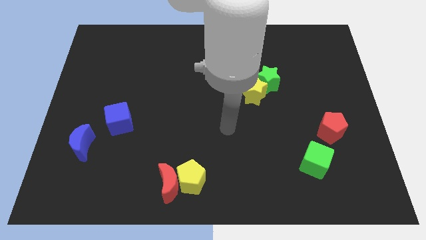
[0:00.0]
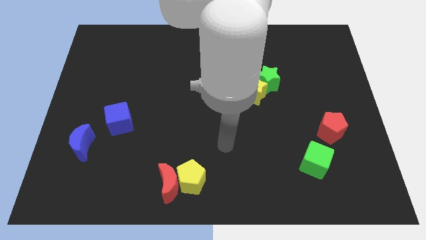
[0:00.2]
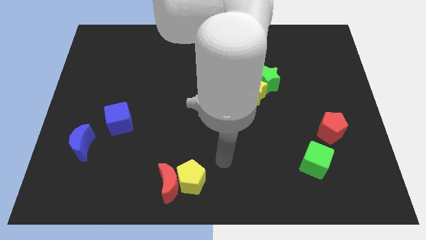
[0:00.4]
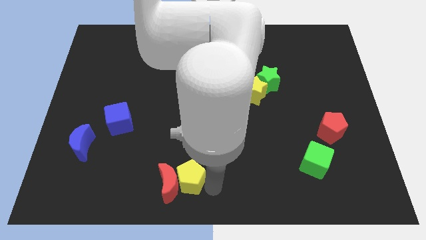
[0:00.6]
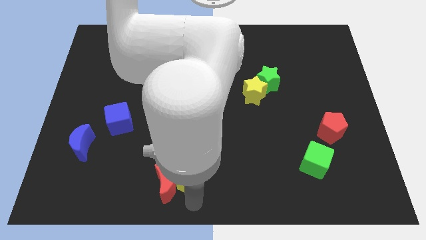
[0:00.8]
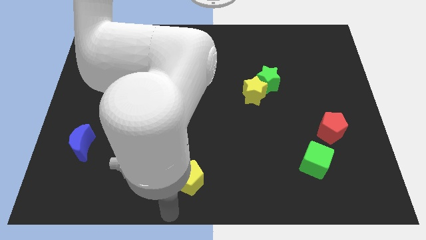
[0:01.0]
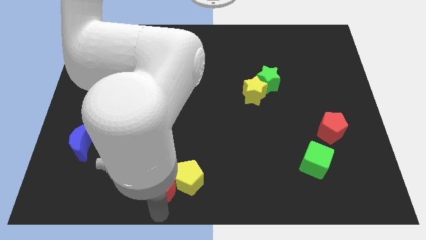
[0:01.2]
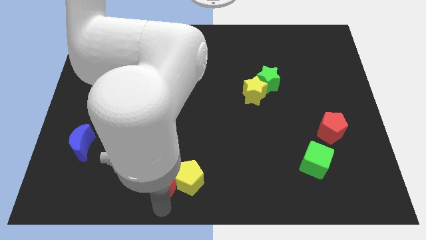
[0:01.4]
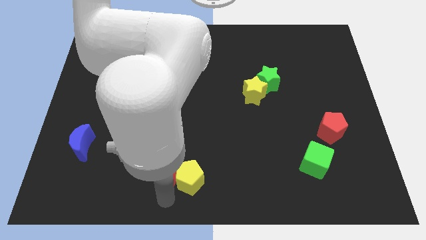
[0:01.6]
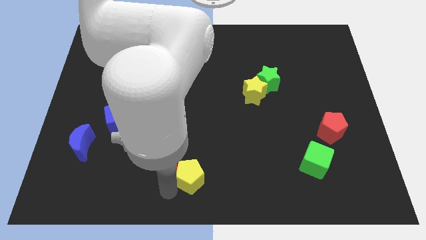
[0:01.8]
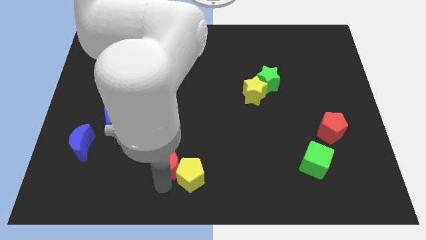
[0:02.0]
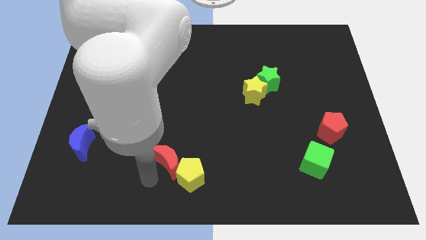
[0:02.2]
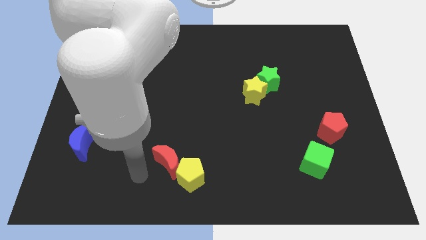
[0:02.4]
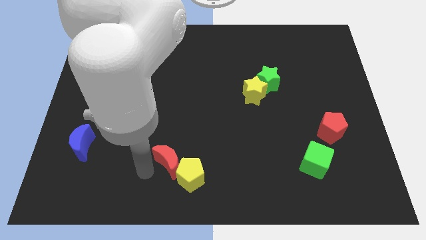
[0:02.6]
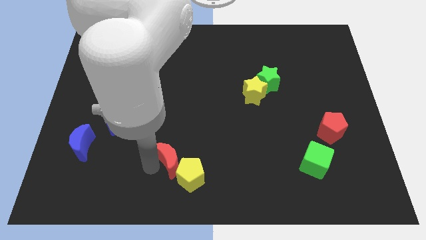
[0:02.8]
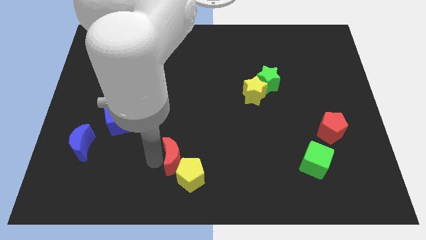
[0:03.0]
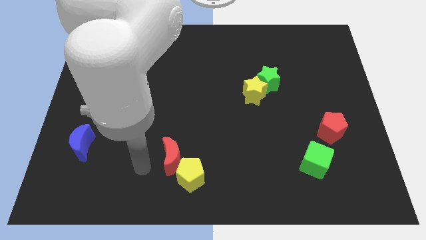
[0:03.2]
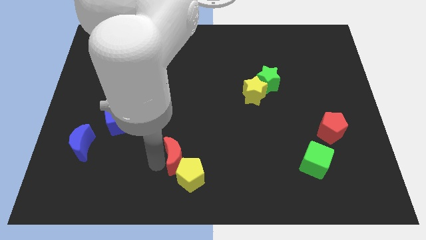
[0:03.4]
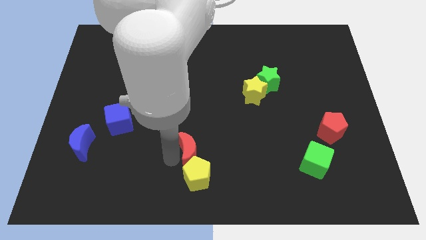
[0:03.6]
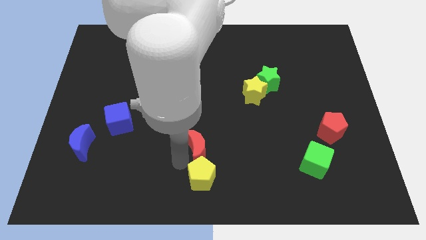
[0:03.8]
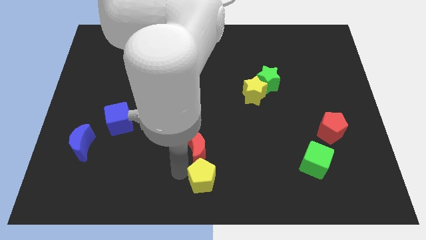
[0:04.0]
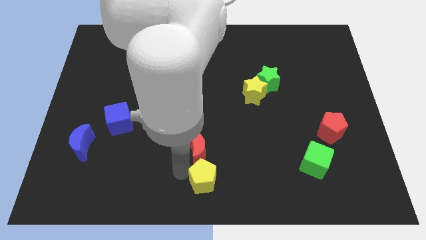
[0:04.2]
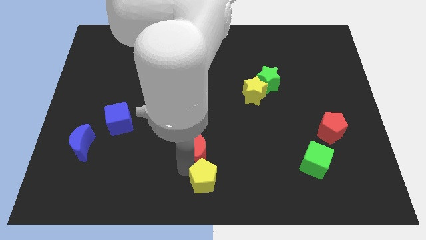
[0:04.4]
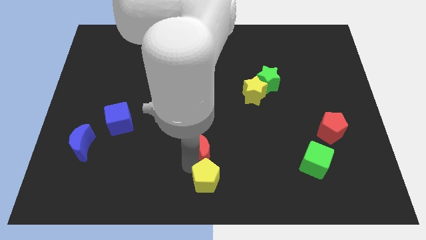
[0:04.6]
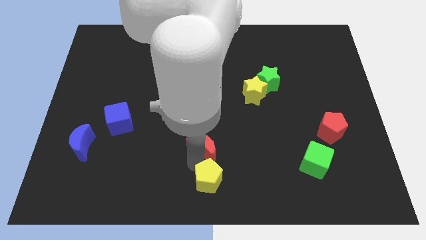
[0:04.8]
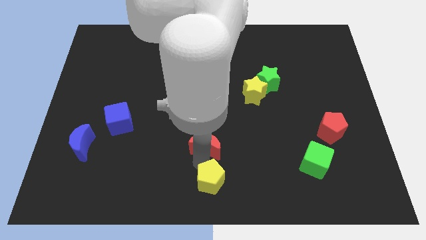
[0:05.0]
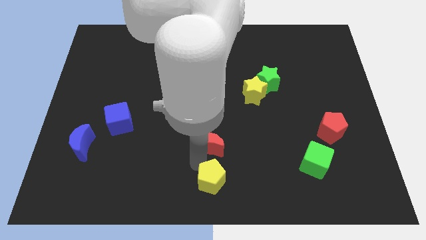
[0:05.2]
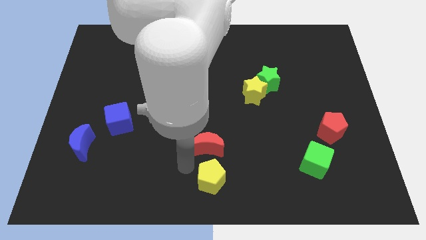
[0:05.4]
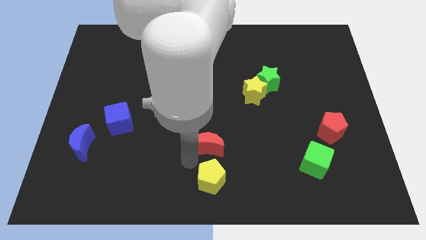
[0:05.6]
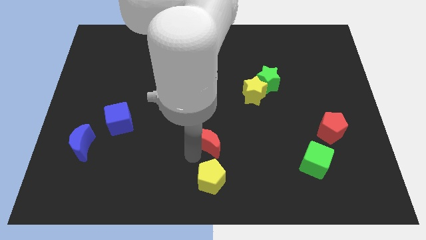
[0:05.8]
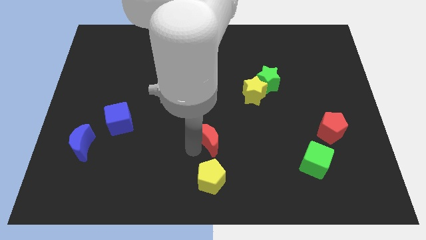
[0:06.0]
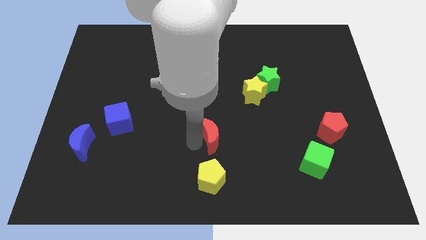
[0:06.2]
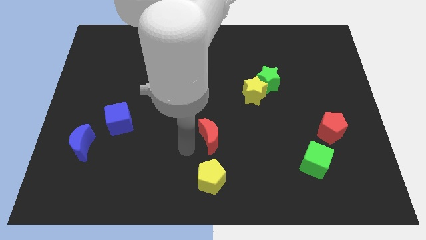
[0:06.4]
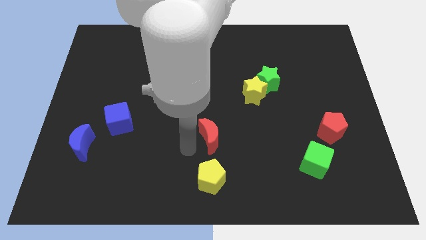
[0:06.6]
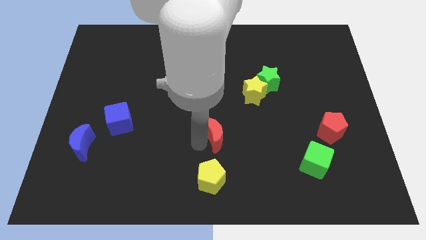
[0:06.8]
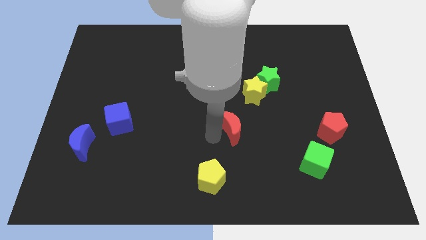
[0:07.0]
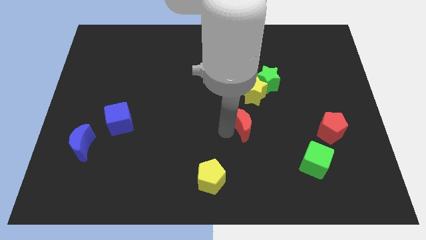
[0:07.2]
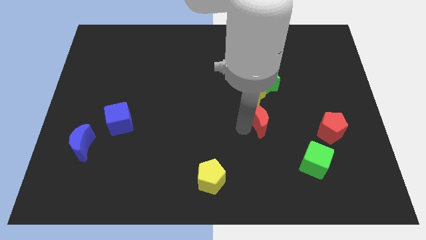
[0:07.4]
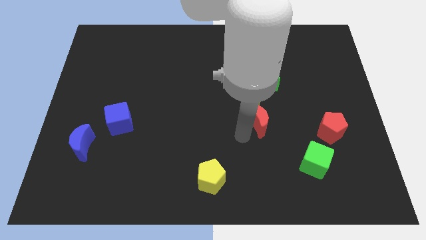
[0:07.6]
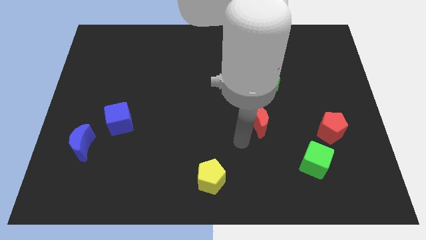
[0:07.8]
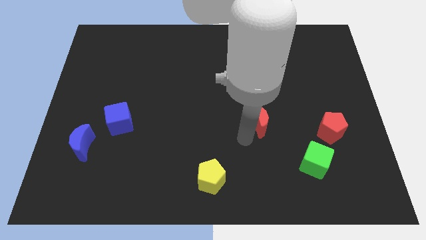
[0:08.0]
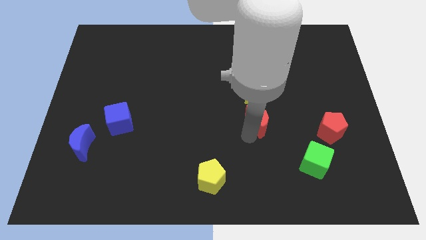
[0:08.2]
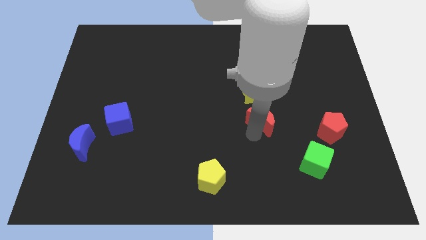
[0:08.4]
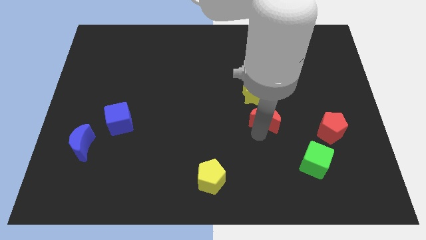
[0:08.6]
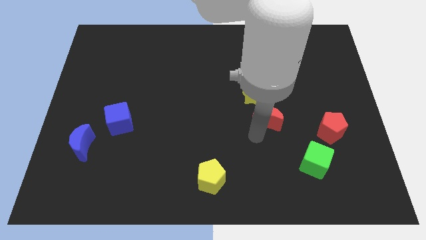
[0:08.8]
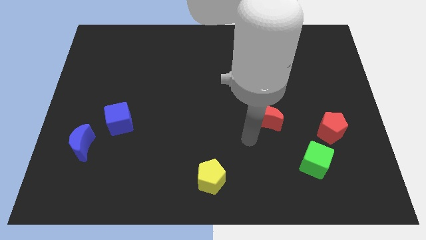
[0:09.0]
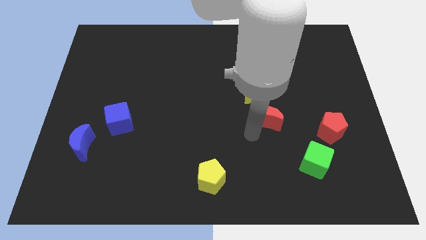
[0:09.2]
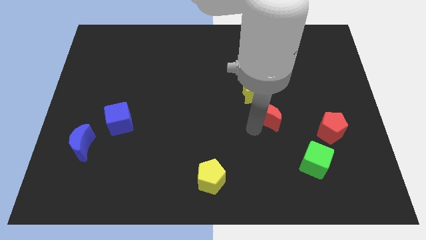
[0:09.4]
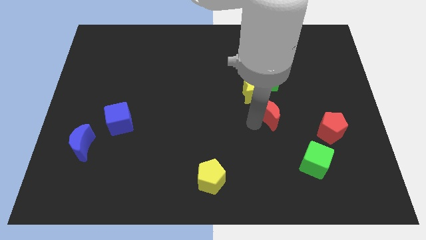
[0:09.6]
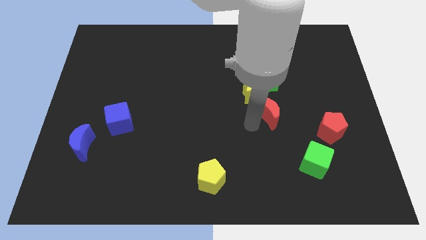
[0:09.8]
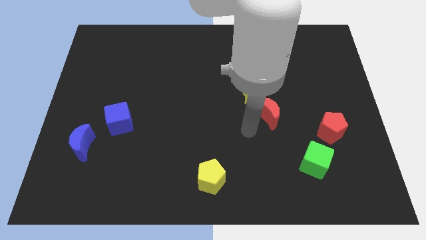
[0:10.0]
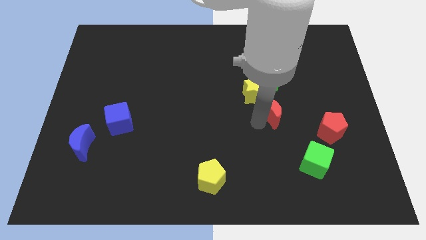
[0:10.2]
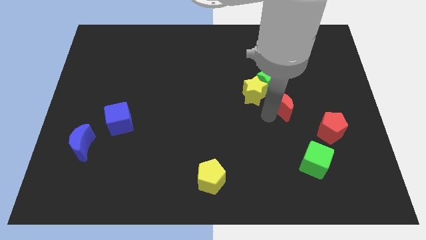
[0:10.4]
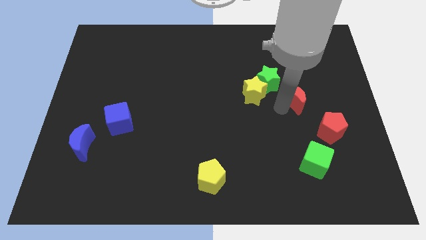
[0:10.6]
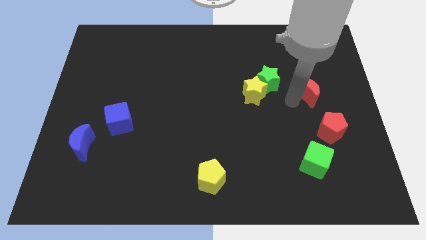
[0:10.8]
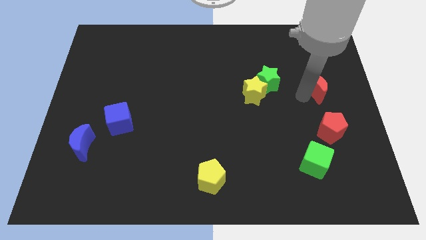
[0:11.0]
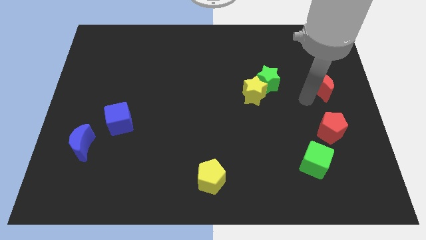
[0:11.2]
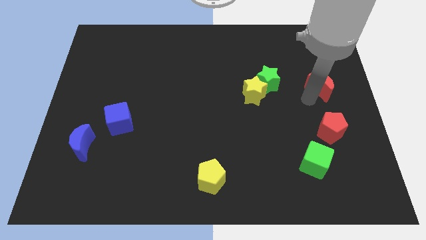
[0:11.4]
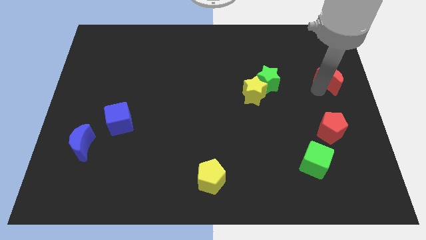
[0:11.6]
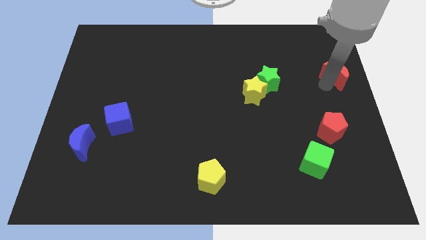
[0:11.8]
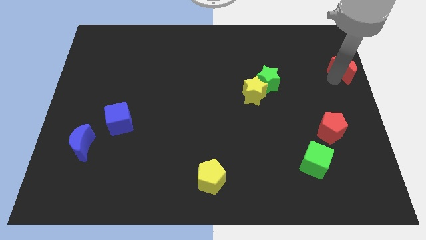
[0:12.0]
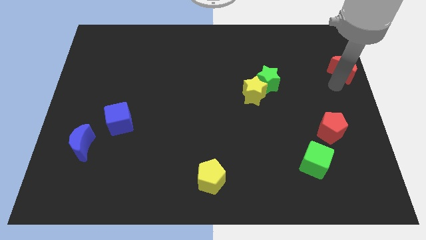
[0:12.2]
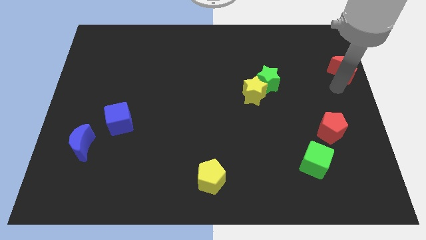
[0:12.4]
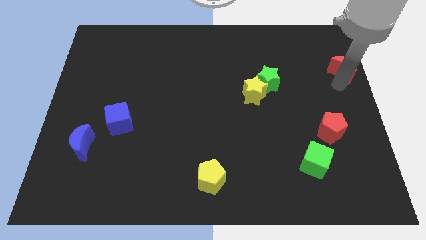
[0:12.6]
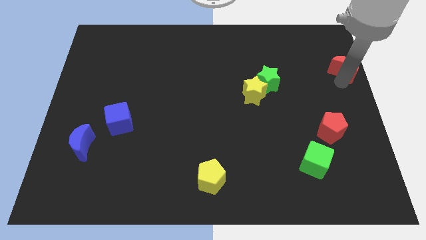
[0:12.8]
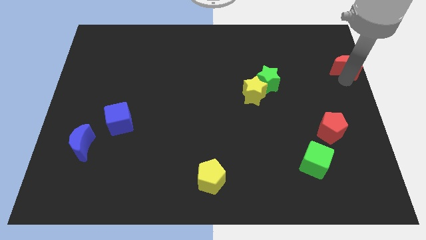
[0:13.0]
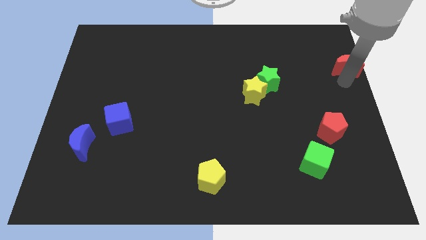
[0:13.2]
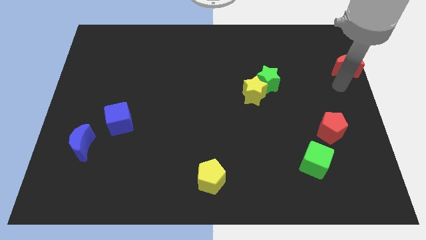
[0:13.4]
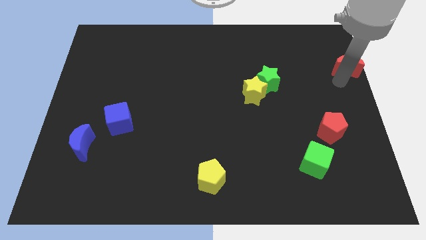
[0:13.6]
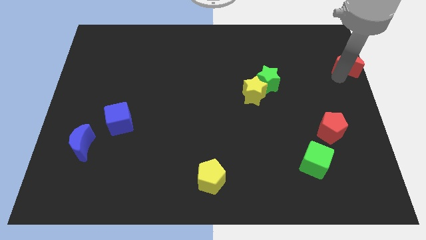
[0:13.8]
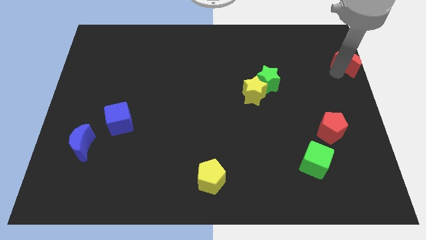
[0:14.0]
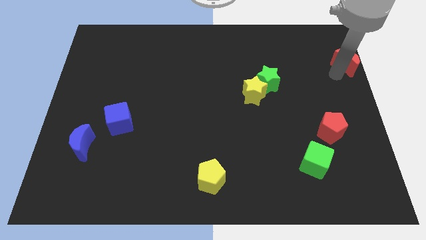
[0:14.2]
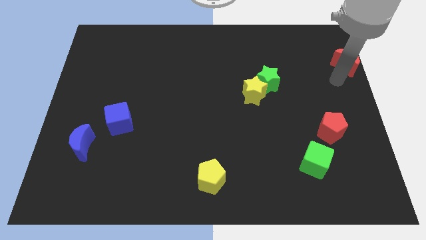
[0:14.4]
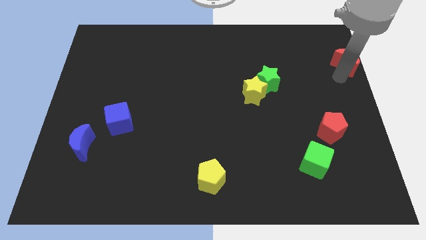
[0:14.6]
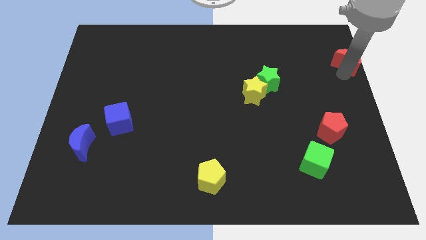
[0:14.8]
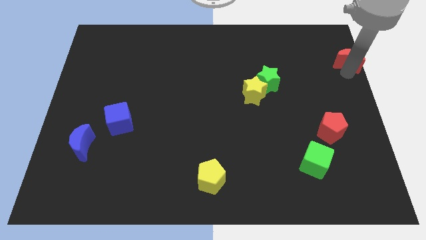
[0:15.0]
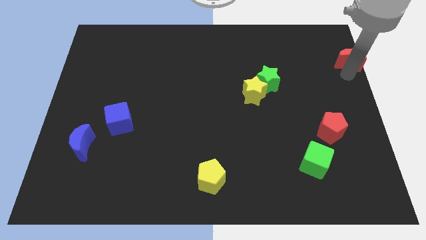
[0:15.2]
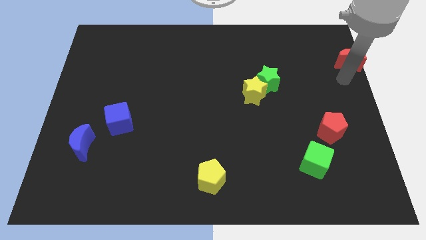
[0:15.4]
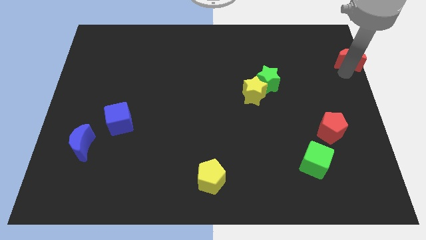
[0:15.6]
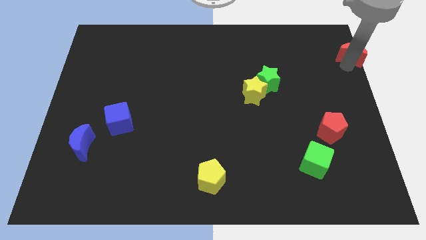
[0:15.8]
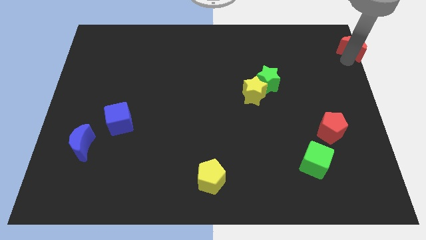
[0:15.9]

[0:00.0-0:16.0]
move the red moon to the upper right corner
